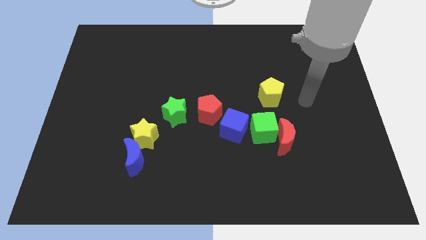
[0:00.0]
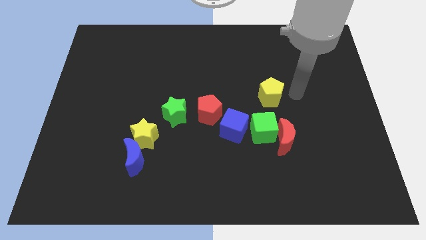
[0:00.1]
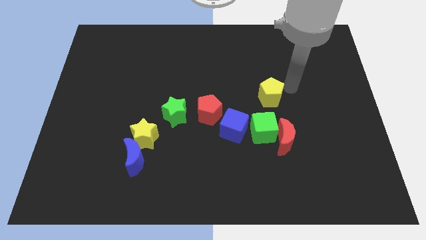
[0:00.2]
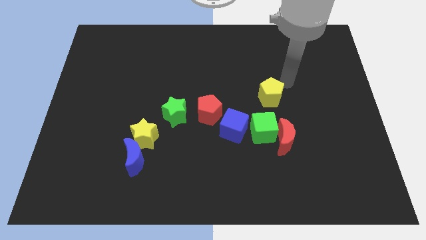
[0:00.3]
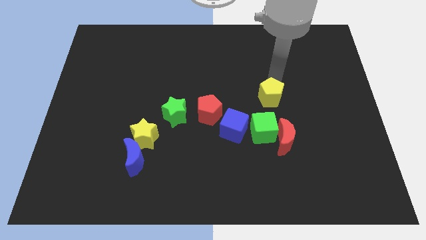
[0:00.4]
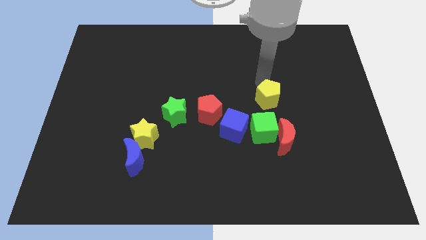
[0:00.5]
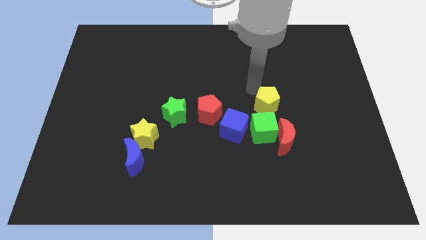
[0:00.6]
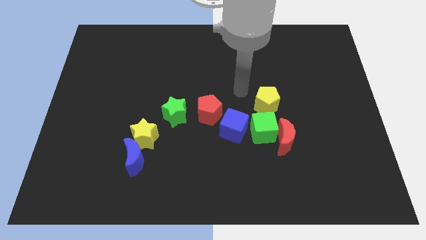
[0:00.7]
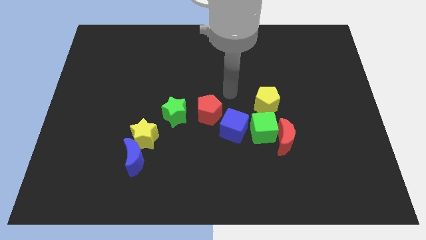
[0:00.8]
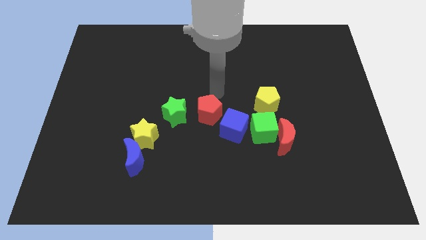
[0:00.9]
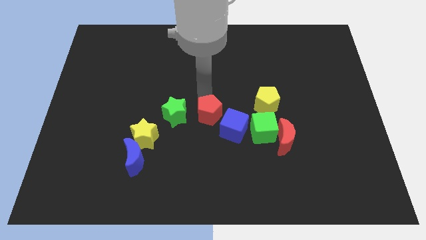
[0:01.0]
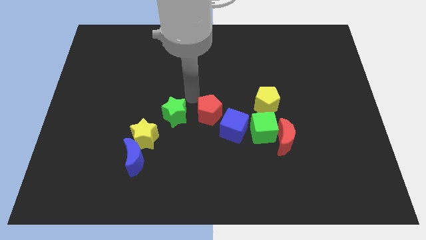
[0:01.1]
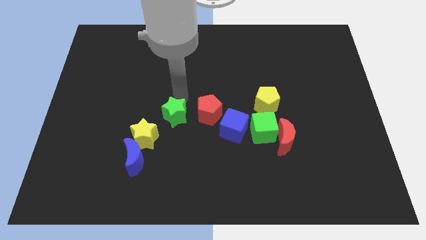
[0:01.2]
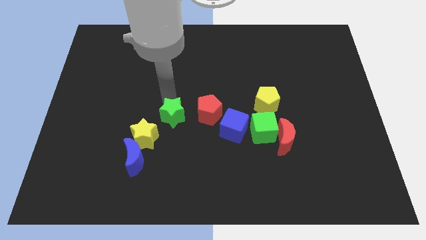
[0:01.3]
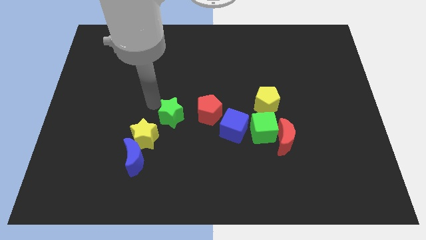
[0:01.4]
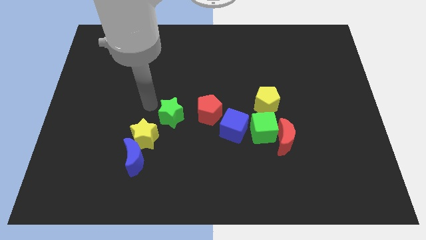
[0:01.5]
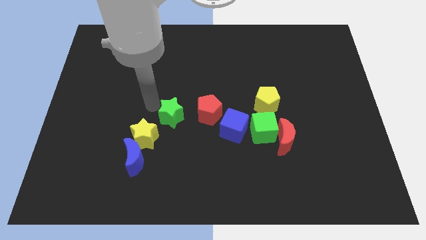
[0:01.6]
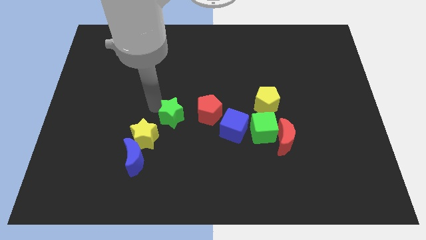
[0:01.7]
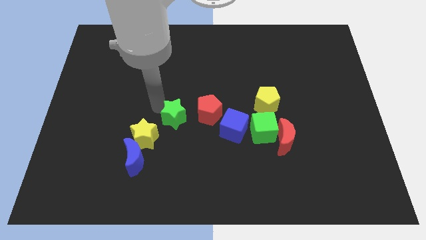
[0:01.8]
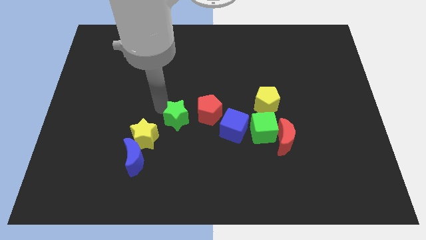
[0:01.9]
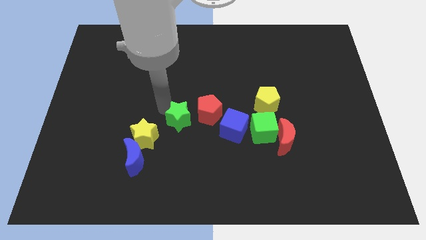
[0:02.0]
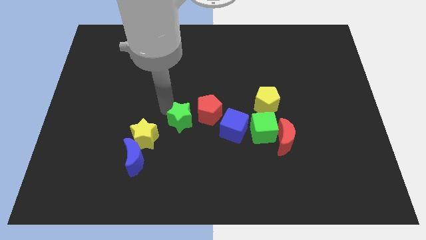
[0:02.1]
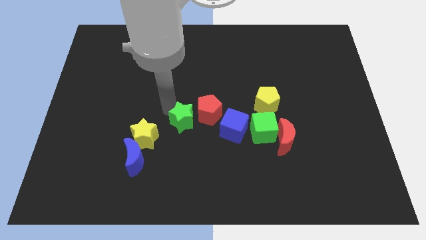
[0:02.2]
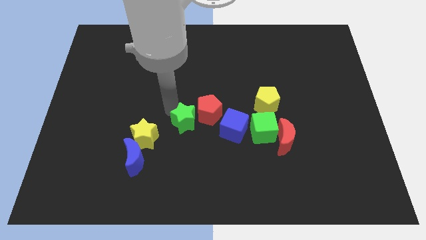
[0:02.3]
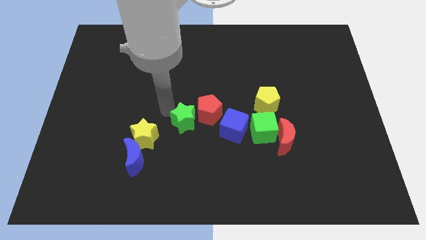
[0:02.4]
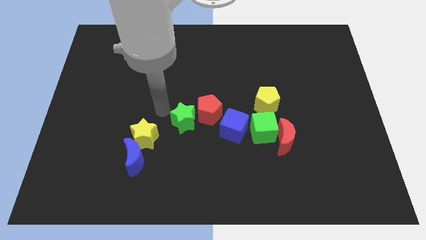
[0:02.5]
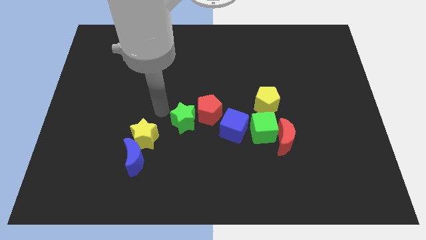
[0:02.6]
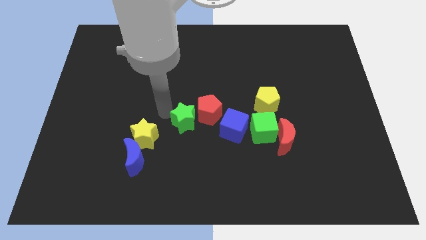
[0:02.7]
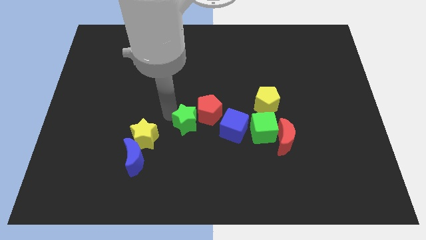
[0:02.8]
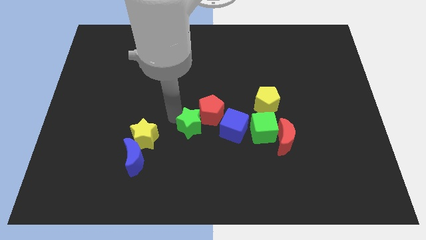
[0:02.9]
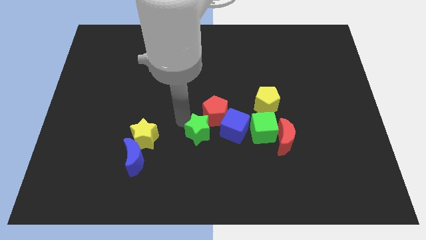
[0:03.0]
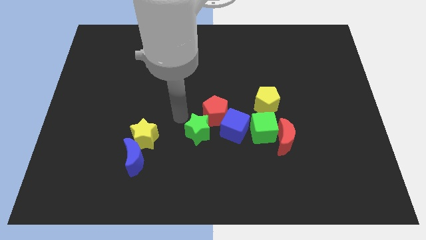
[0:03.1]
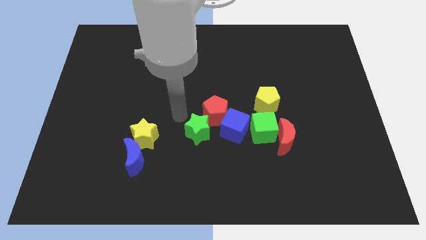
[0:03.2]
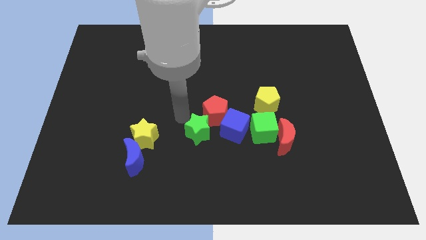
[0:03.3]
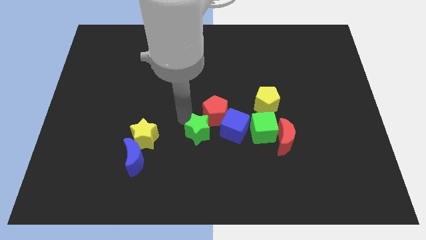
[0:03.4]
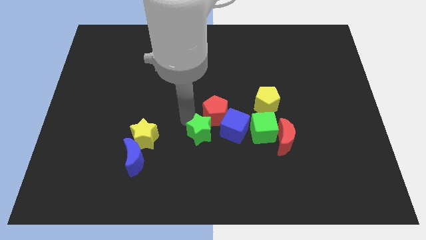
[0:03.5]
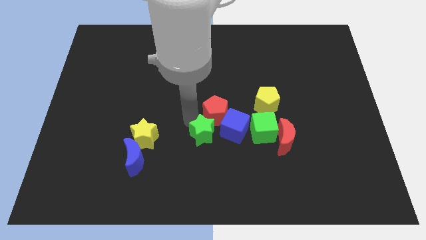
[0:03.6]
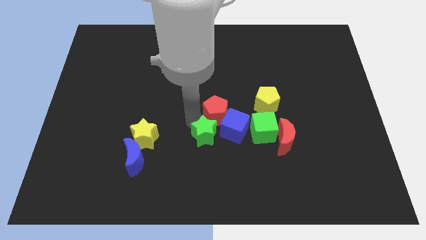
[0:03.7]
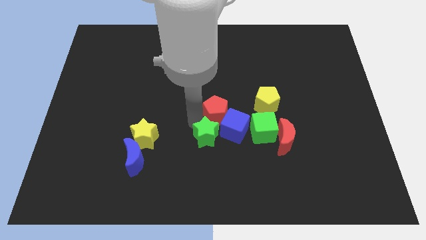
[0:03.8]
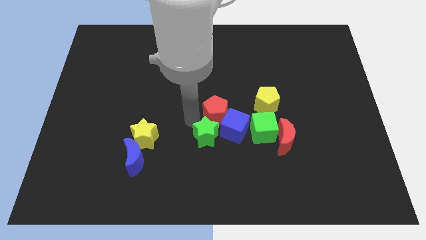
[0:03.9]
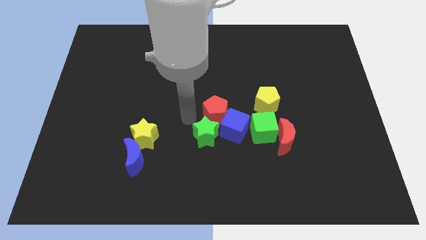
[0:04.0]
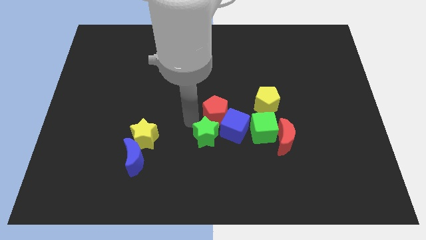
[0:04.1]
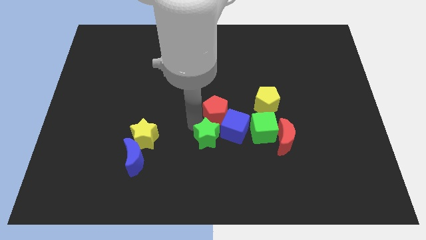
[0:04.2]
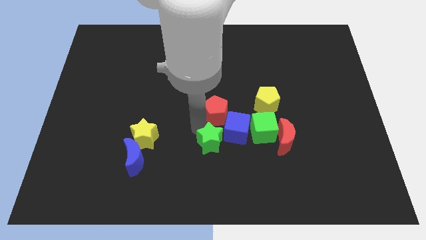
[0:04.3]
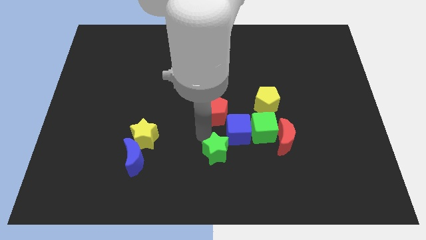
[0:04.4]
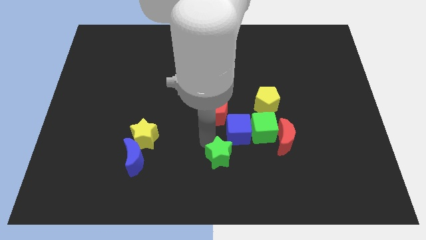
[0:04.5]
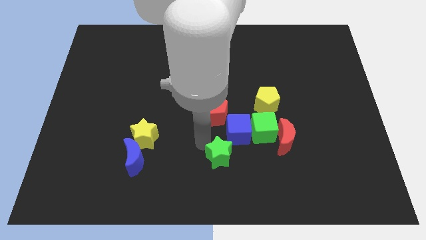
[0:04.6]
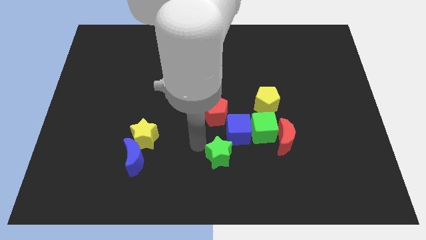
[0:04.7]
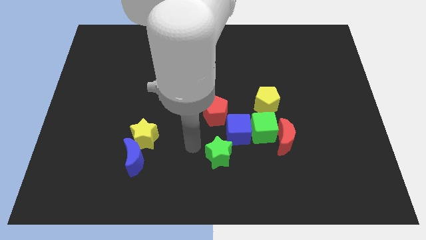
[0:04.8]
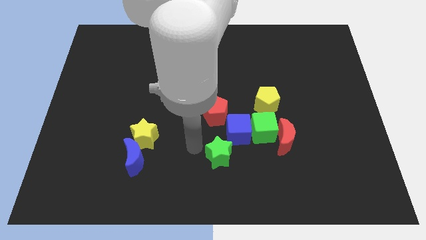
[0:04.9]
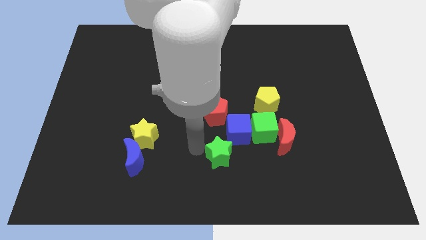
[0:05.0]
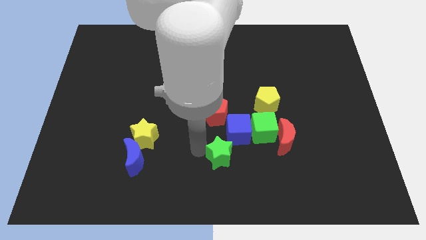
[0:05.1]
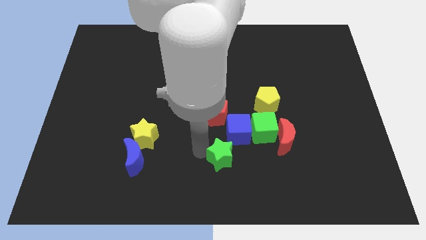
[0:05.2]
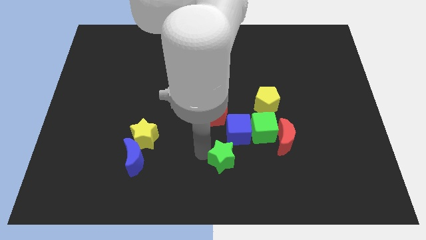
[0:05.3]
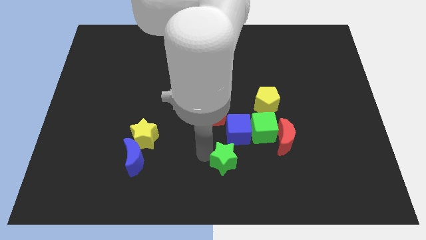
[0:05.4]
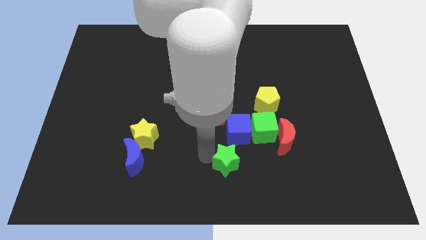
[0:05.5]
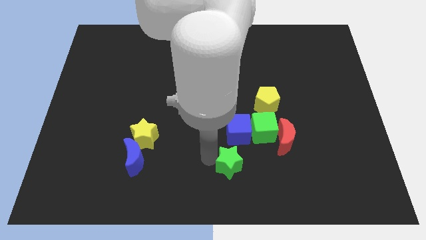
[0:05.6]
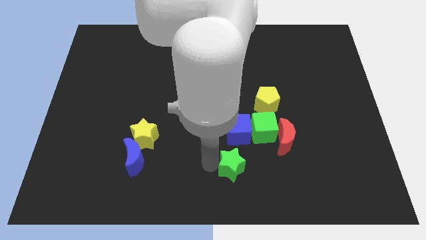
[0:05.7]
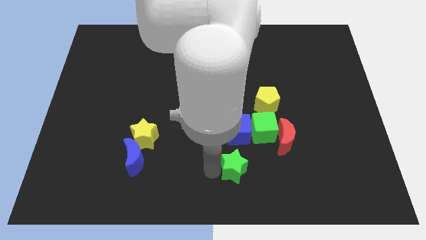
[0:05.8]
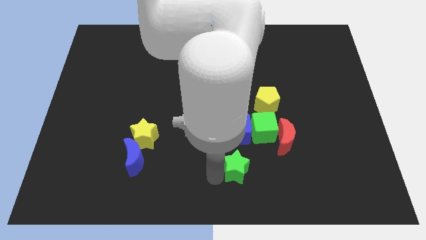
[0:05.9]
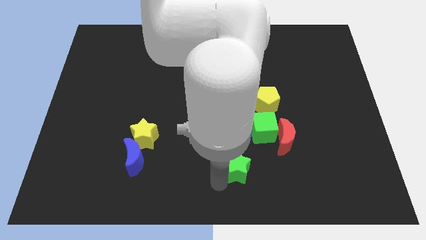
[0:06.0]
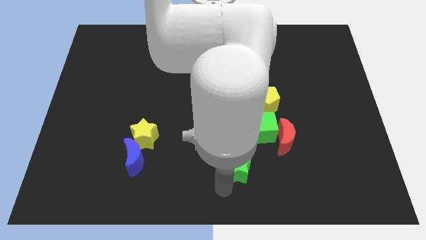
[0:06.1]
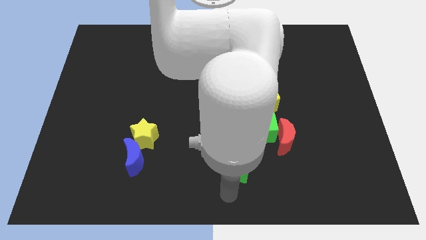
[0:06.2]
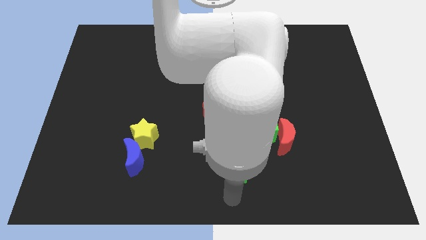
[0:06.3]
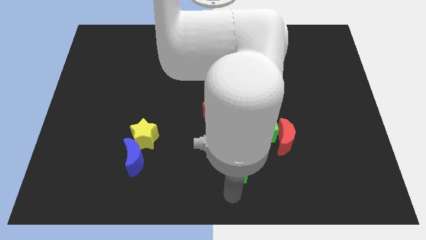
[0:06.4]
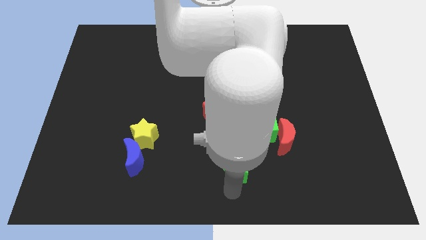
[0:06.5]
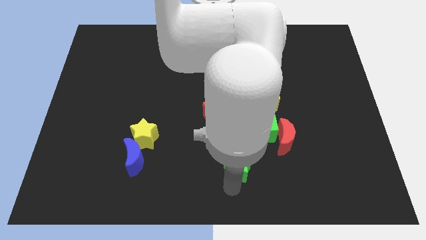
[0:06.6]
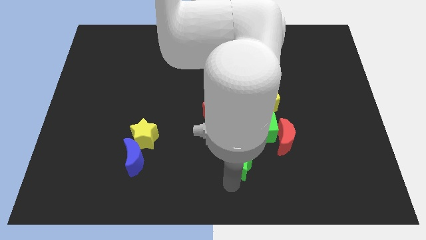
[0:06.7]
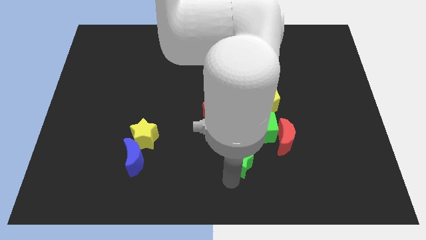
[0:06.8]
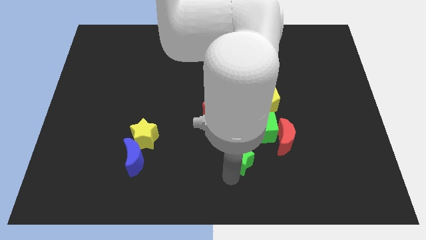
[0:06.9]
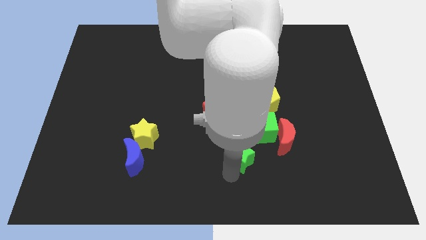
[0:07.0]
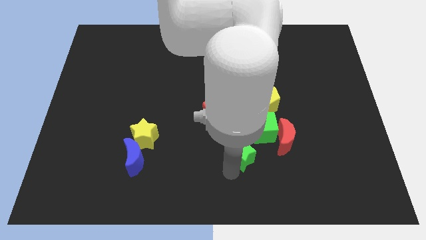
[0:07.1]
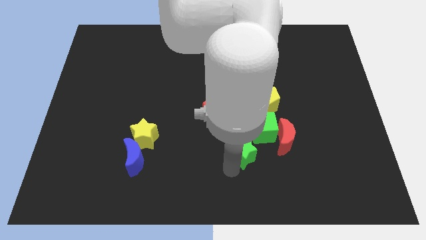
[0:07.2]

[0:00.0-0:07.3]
push the green star to the bottom right side of the red pentagon
